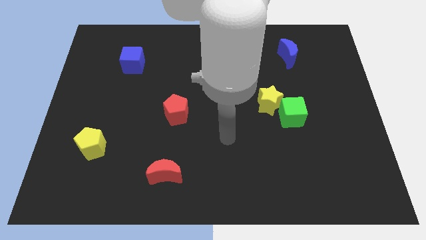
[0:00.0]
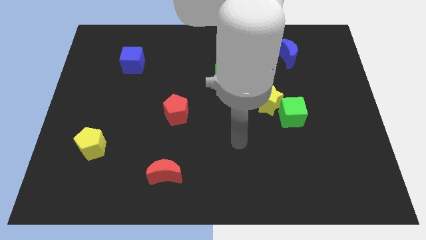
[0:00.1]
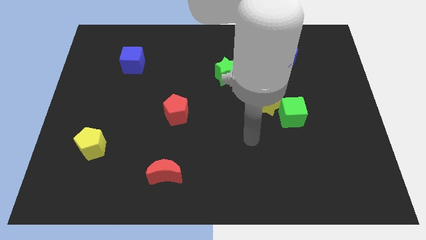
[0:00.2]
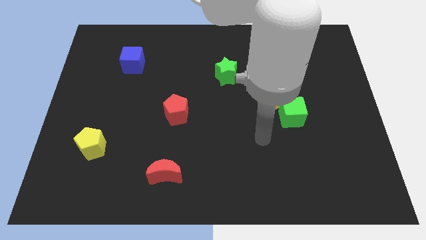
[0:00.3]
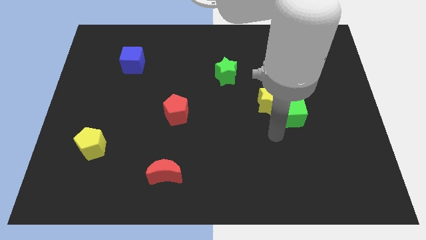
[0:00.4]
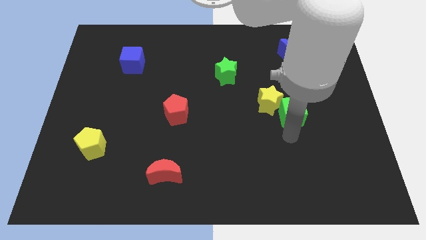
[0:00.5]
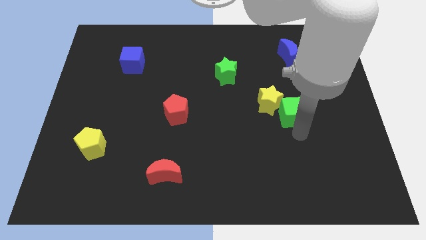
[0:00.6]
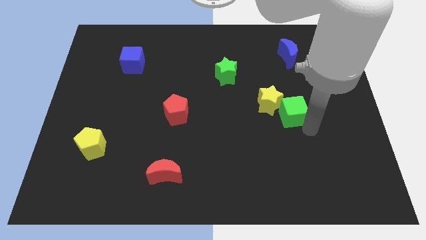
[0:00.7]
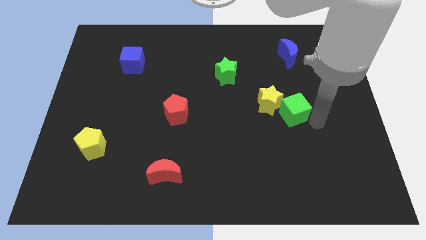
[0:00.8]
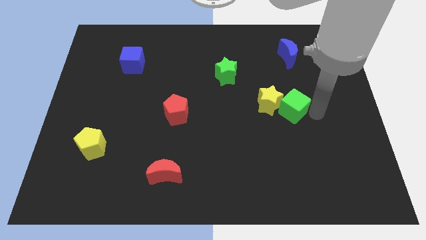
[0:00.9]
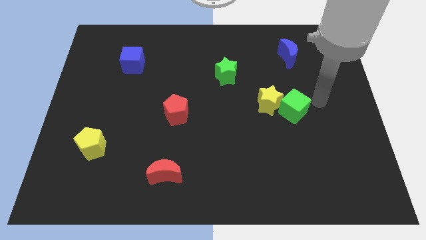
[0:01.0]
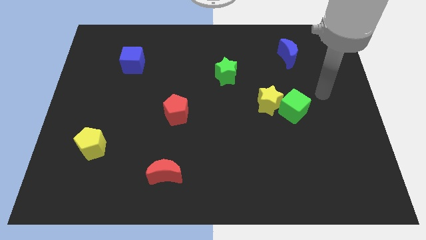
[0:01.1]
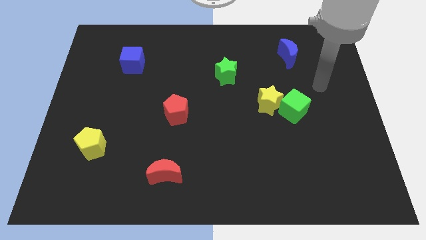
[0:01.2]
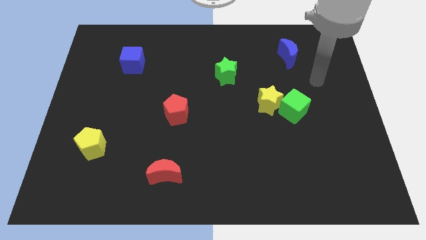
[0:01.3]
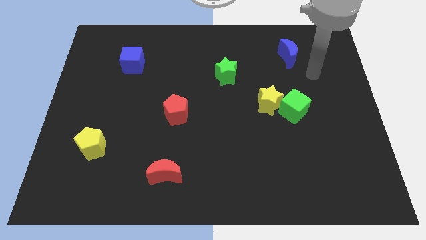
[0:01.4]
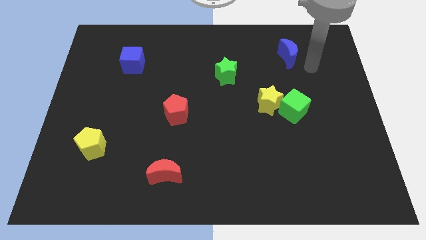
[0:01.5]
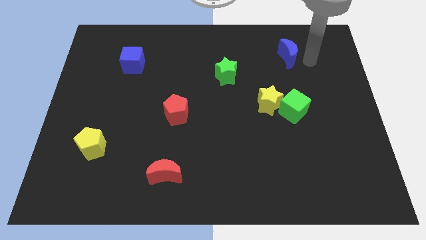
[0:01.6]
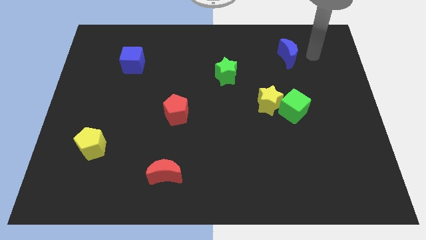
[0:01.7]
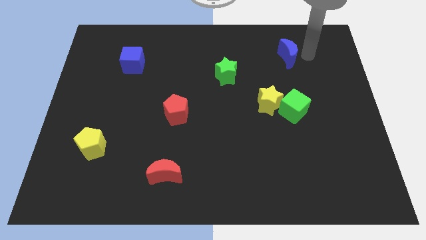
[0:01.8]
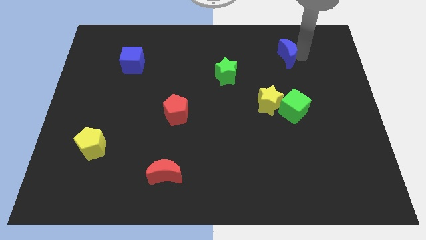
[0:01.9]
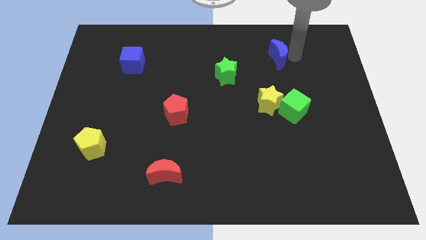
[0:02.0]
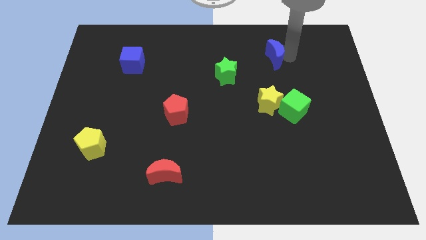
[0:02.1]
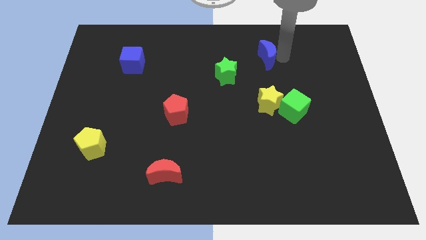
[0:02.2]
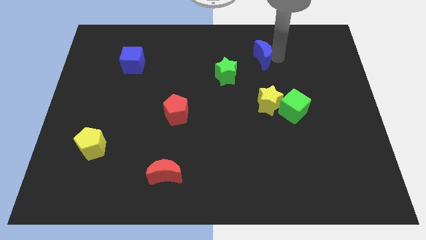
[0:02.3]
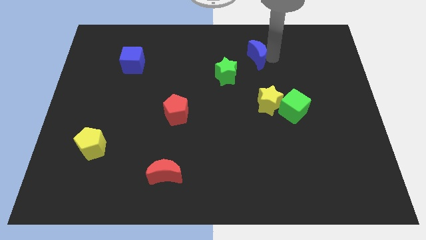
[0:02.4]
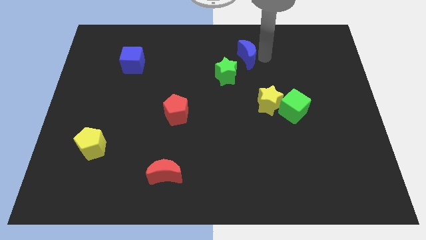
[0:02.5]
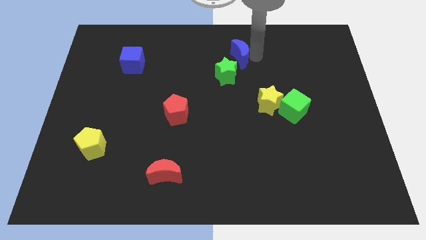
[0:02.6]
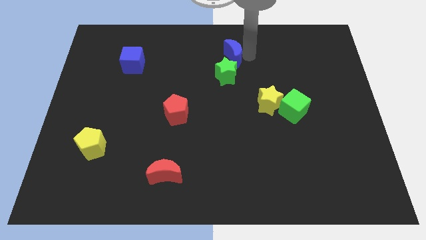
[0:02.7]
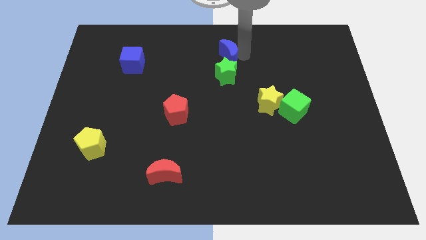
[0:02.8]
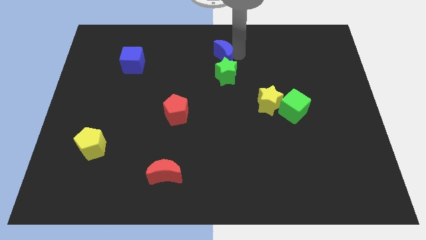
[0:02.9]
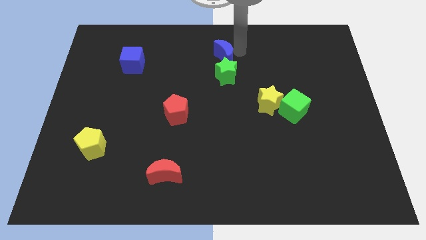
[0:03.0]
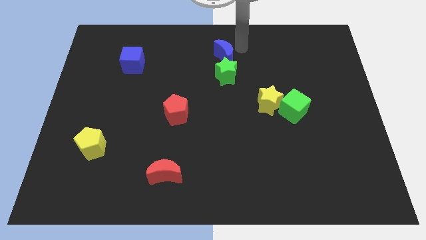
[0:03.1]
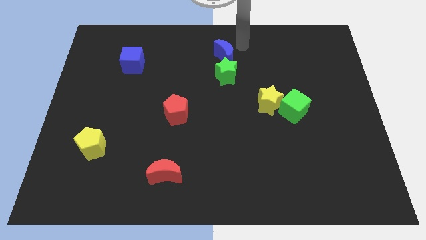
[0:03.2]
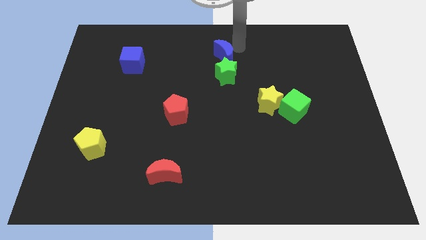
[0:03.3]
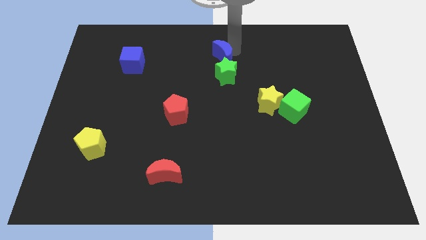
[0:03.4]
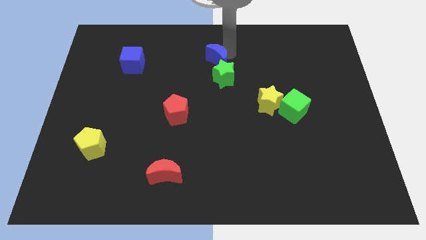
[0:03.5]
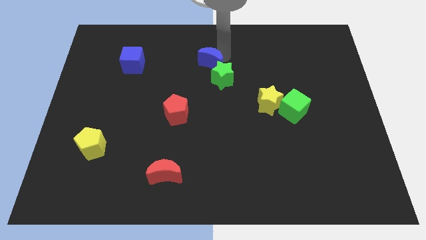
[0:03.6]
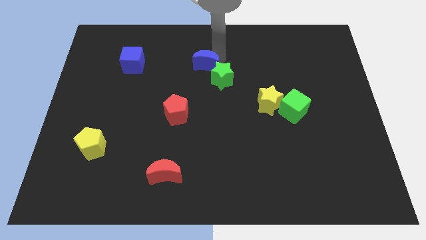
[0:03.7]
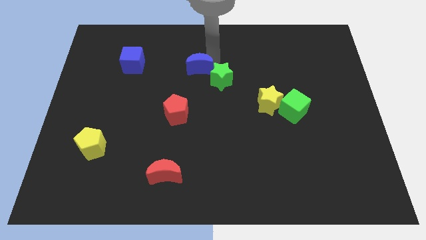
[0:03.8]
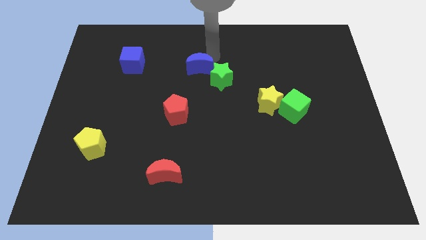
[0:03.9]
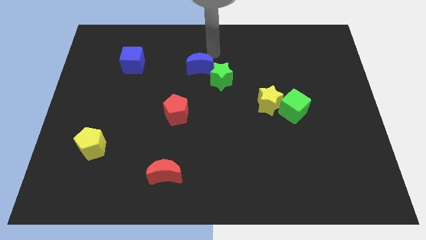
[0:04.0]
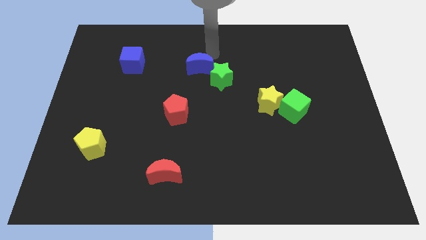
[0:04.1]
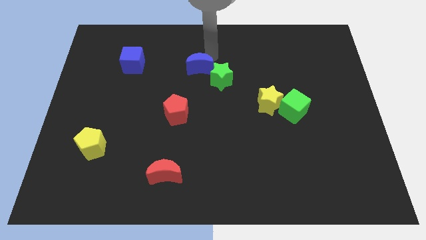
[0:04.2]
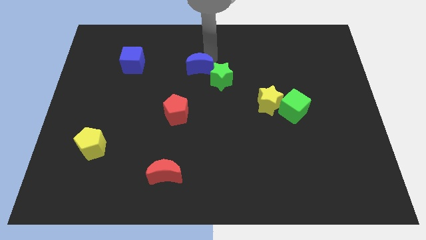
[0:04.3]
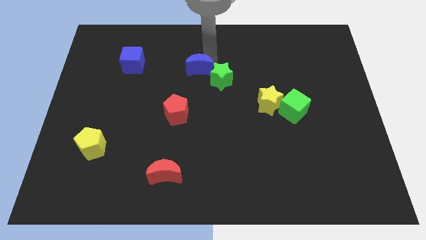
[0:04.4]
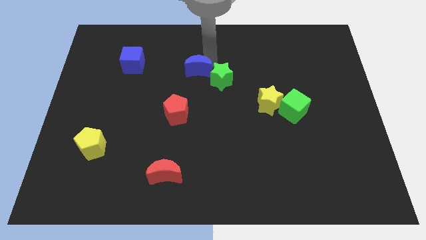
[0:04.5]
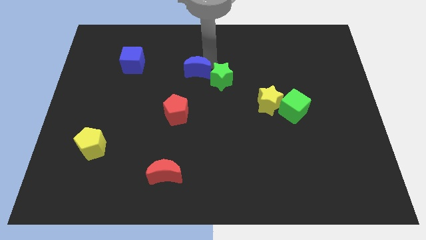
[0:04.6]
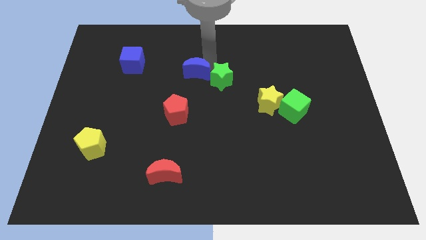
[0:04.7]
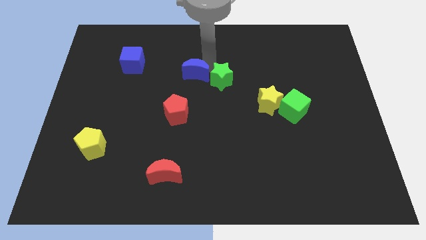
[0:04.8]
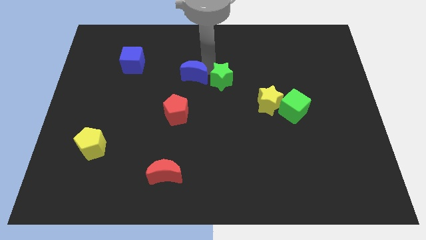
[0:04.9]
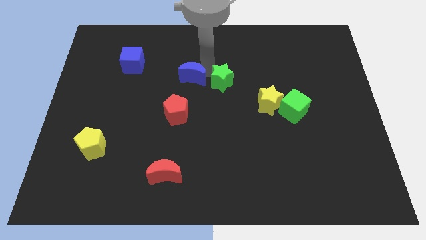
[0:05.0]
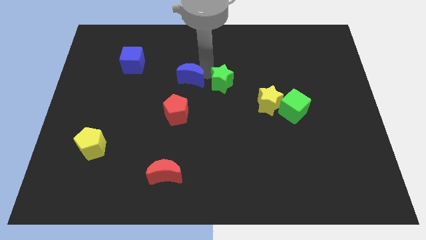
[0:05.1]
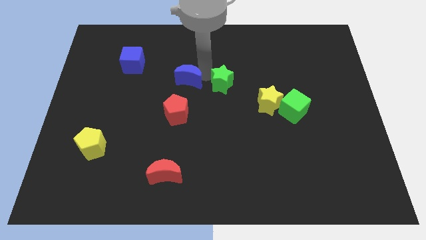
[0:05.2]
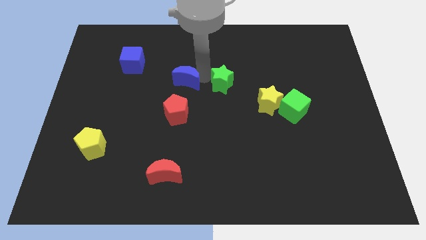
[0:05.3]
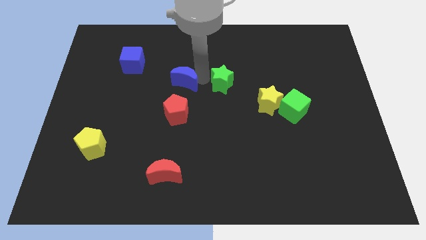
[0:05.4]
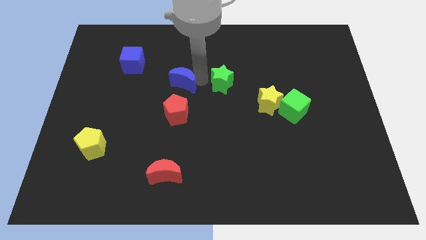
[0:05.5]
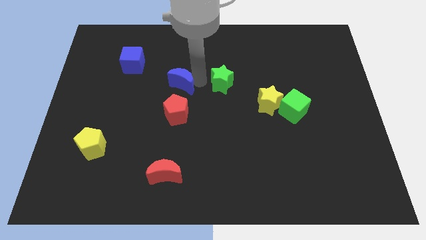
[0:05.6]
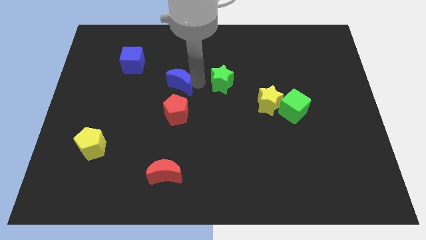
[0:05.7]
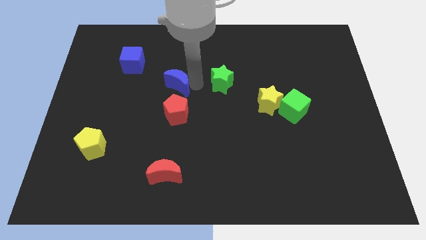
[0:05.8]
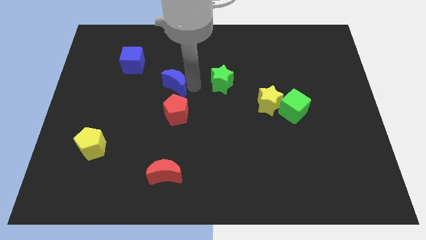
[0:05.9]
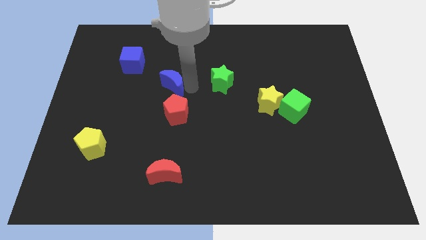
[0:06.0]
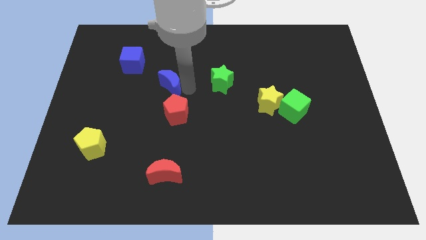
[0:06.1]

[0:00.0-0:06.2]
push the blue moon diagonally up and to the left of the red pentagon

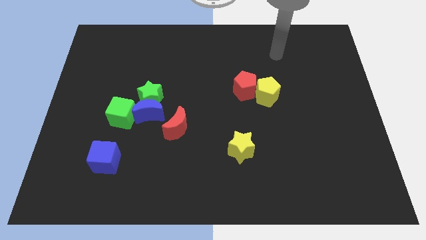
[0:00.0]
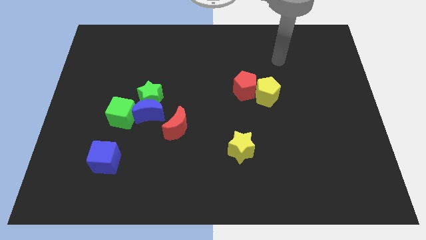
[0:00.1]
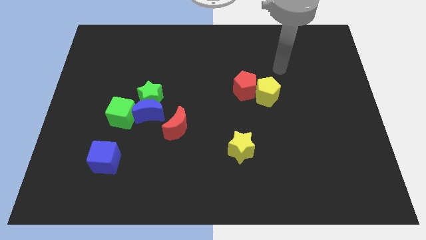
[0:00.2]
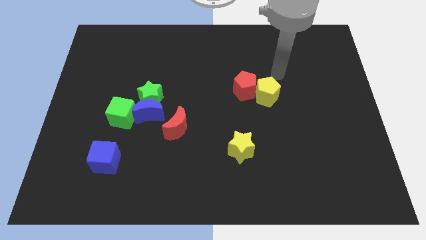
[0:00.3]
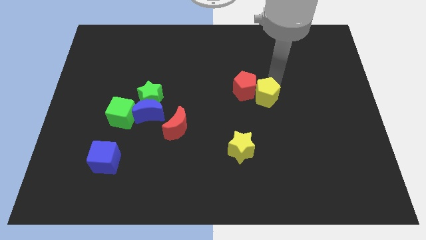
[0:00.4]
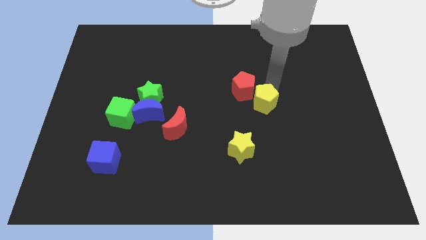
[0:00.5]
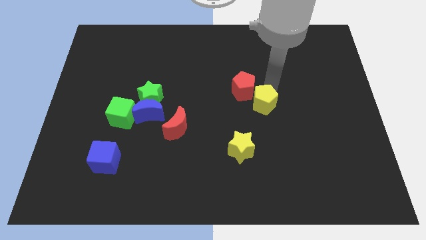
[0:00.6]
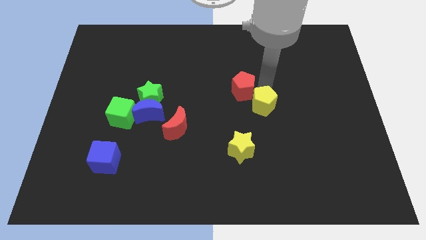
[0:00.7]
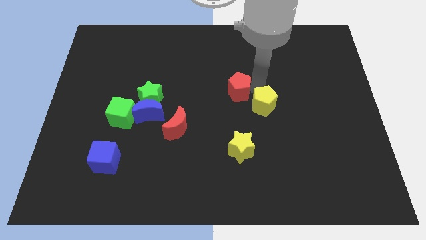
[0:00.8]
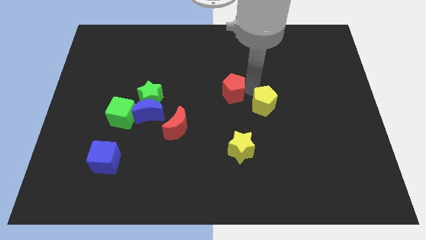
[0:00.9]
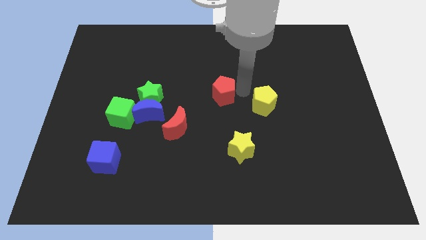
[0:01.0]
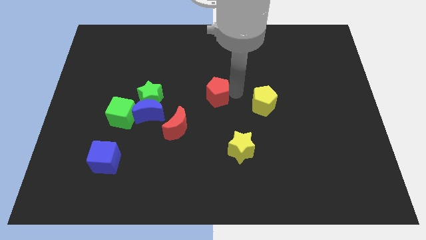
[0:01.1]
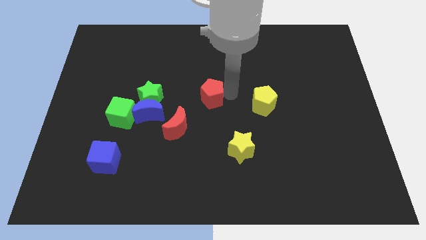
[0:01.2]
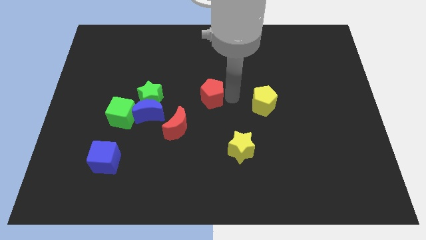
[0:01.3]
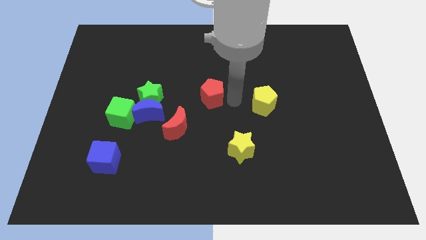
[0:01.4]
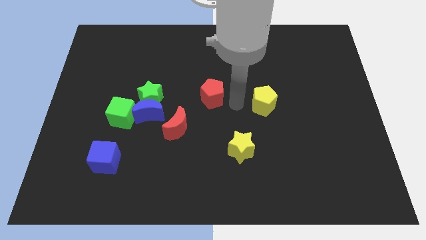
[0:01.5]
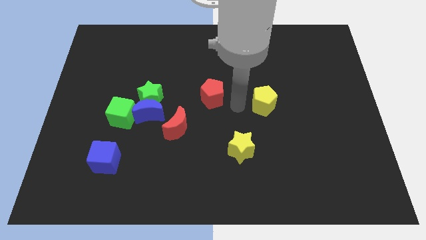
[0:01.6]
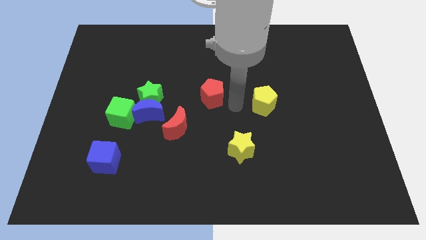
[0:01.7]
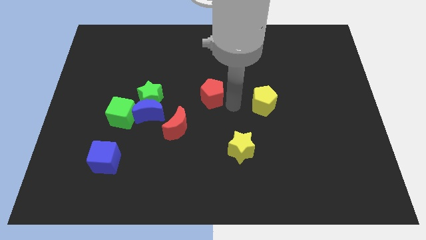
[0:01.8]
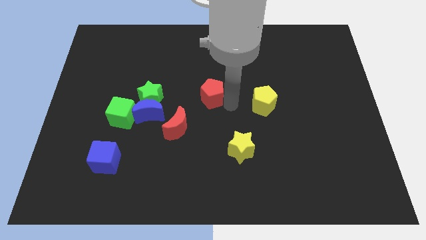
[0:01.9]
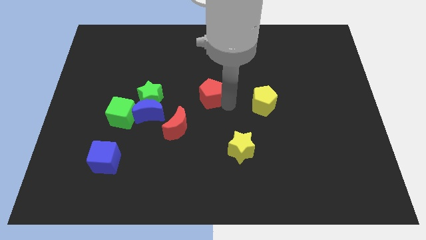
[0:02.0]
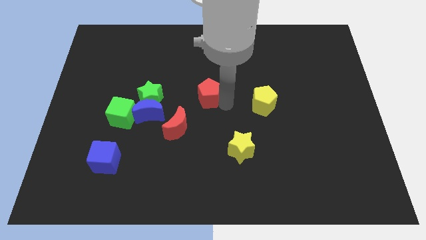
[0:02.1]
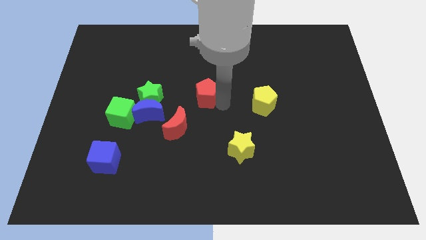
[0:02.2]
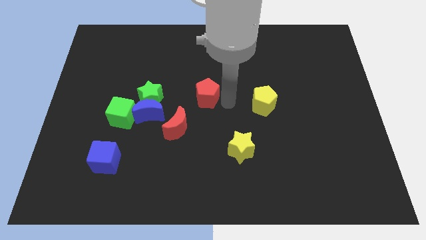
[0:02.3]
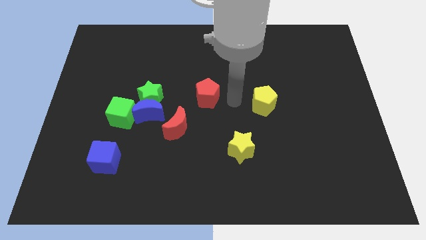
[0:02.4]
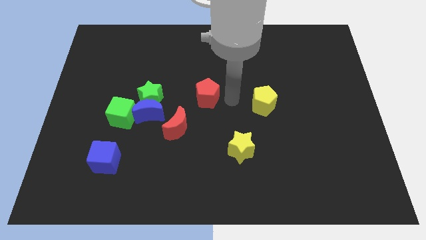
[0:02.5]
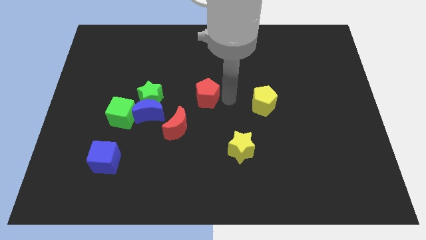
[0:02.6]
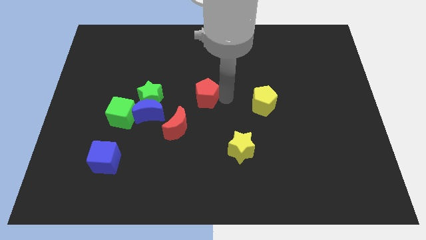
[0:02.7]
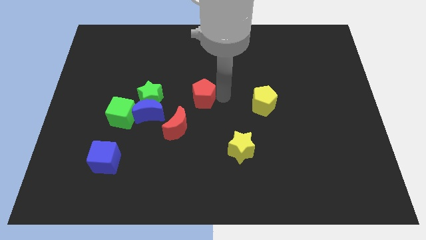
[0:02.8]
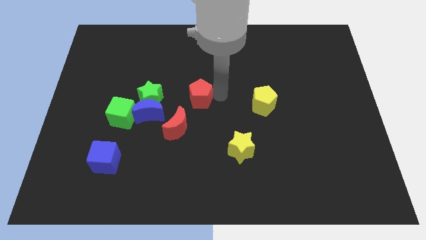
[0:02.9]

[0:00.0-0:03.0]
put the red pentagon above the red moon
